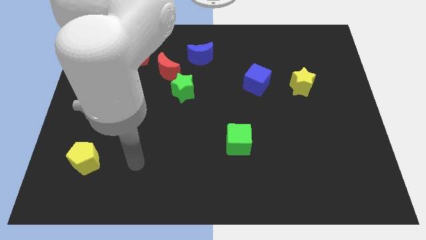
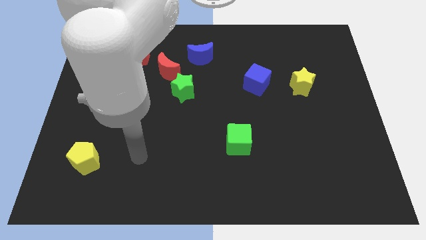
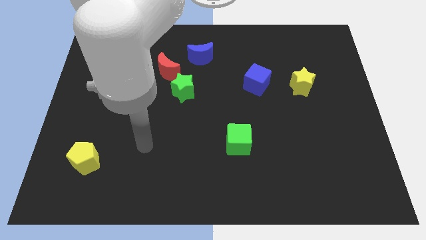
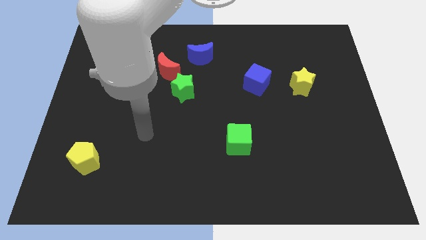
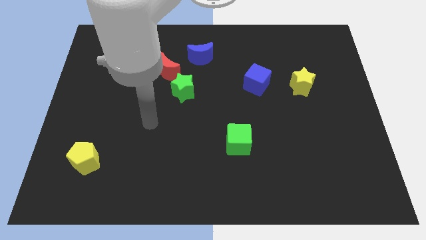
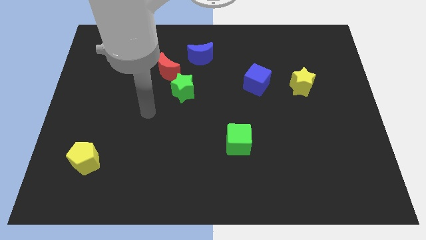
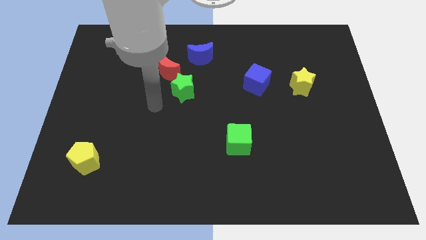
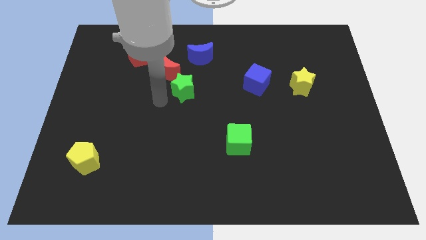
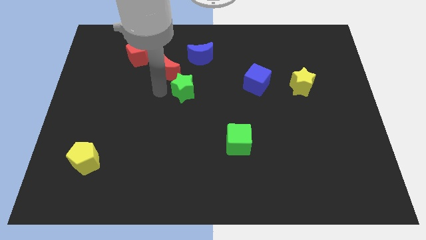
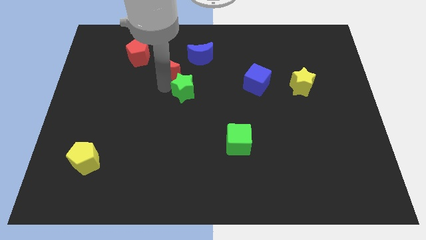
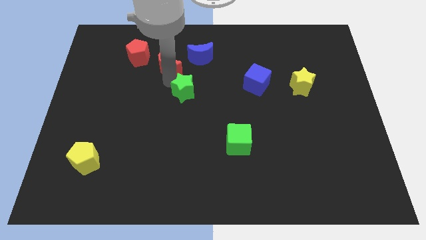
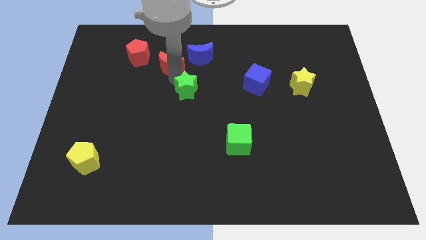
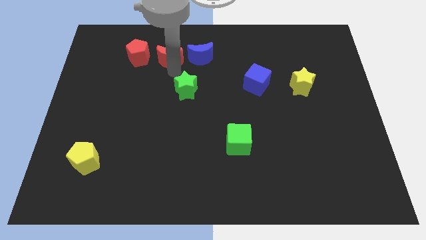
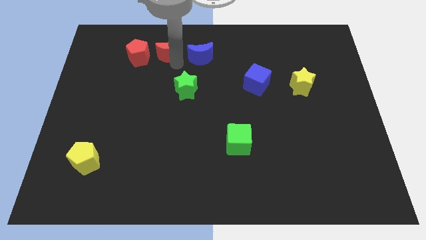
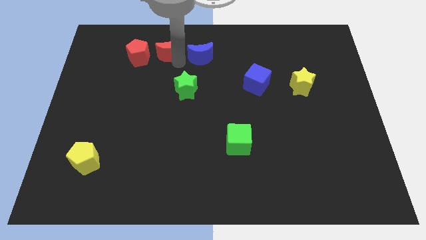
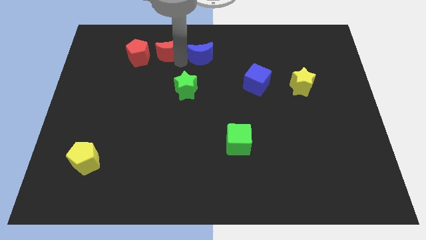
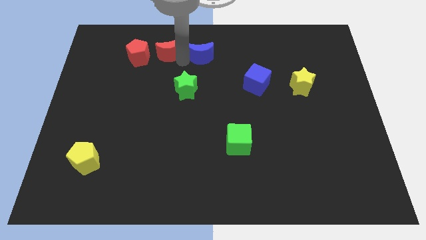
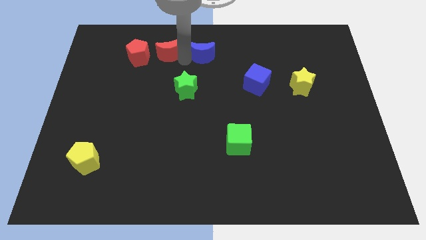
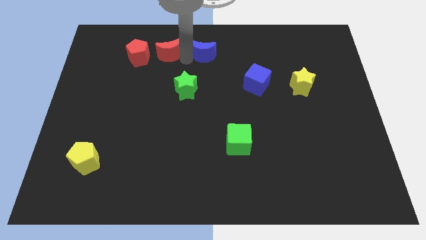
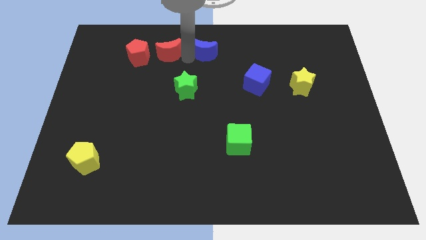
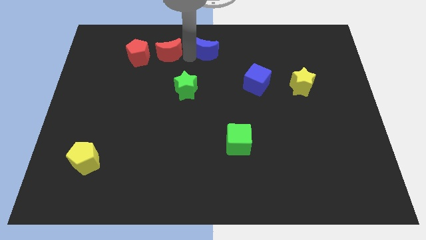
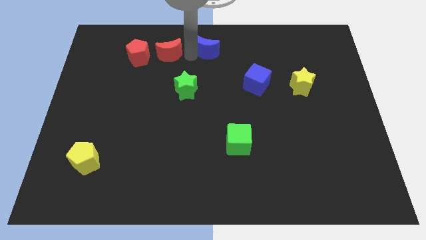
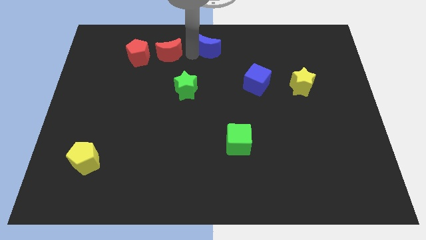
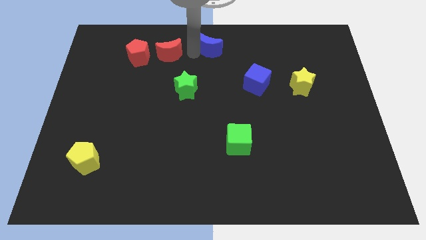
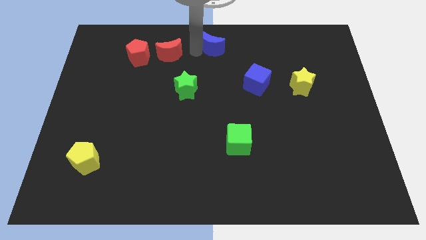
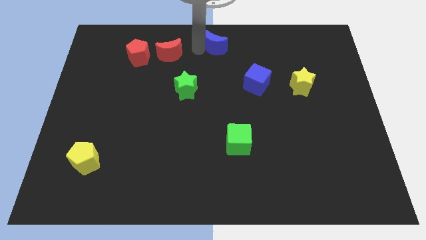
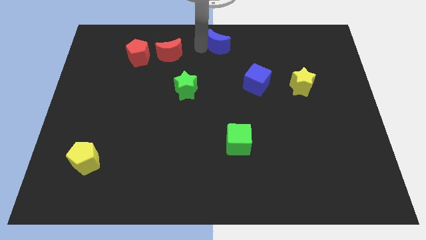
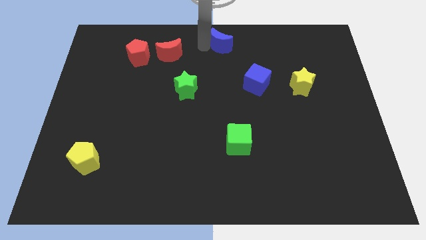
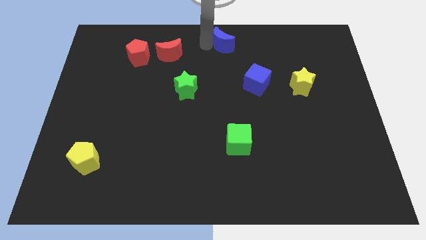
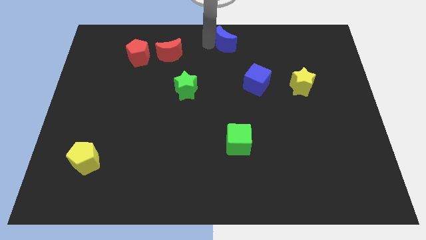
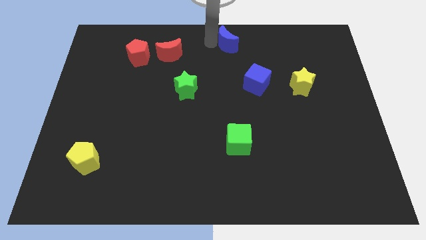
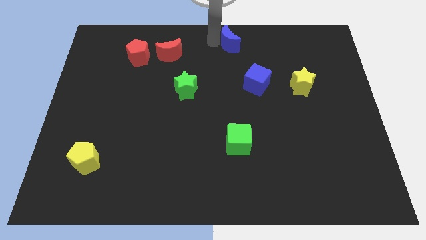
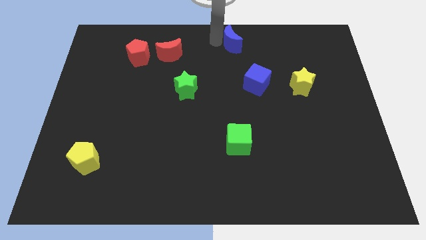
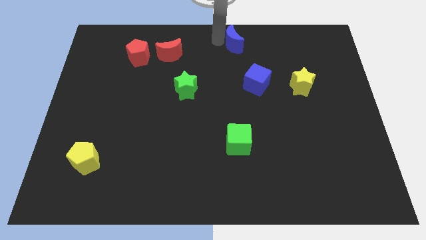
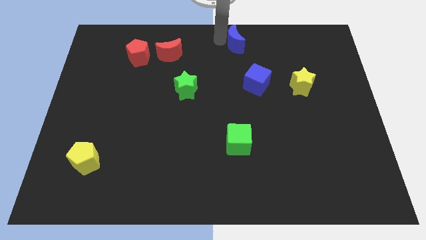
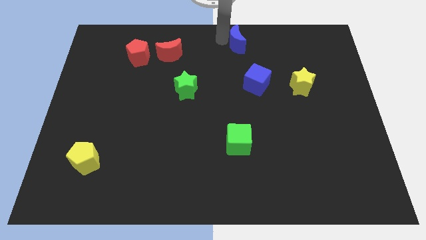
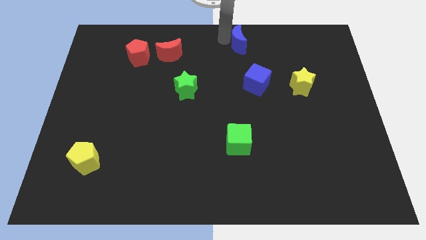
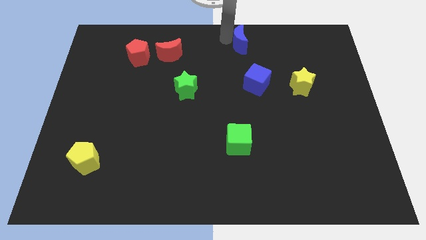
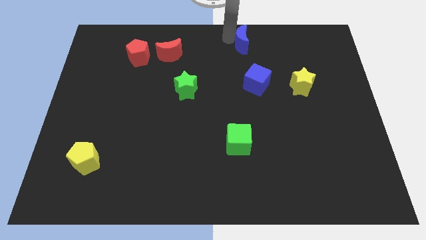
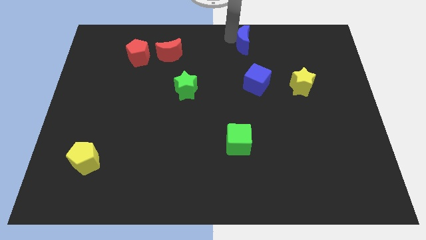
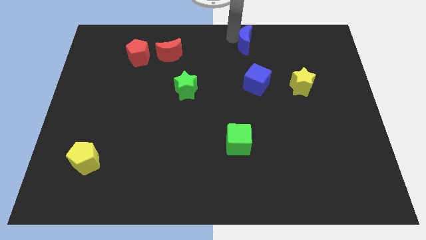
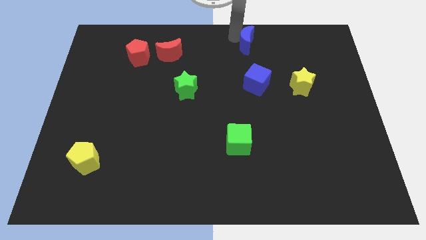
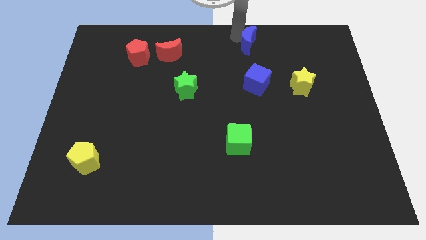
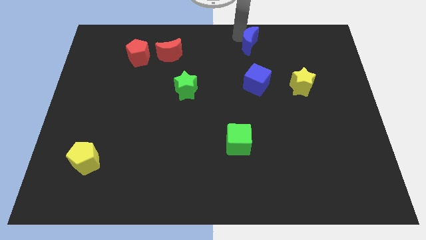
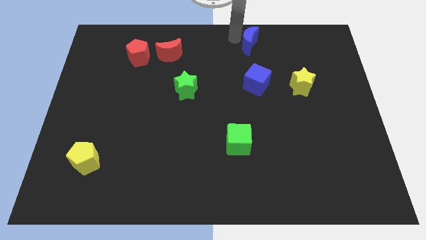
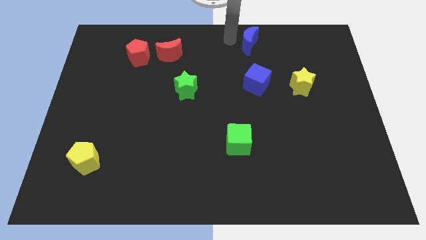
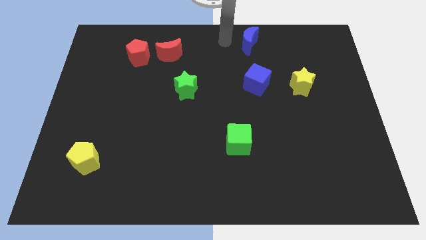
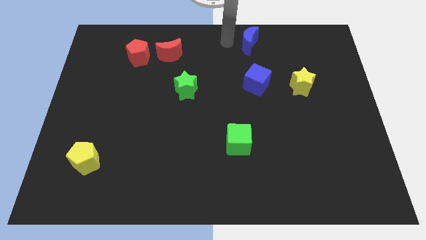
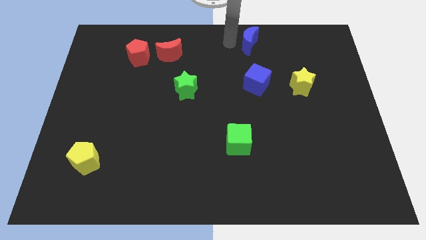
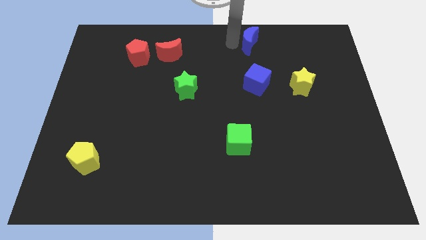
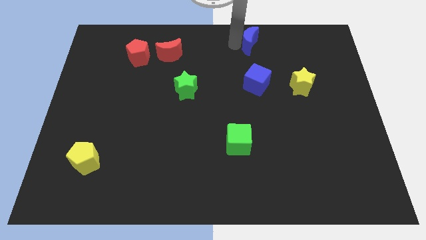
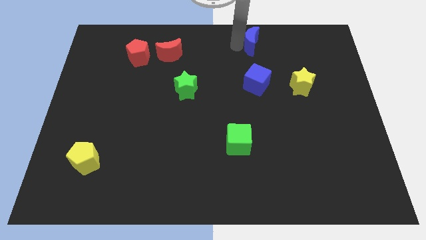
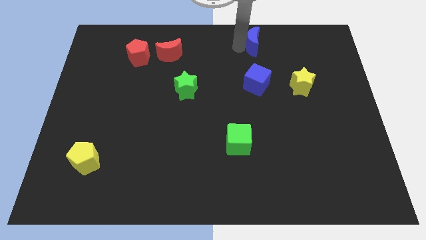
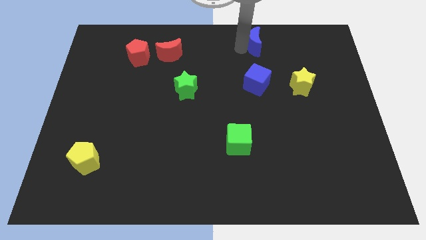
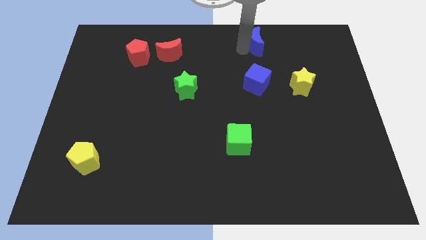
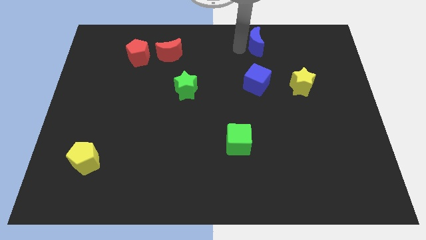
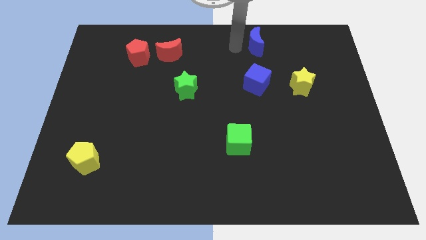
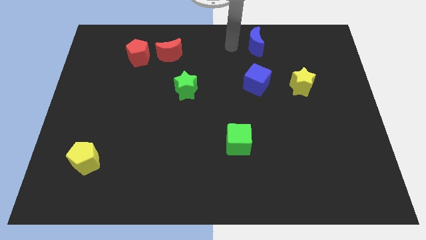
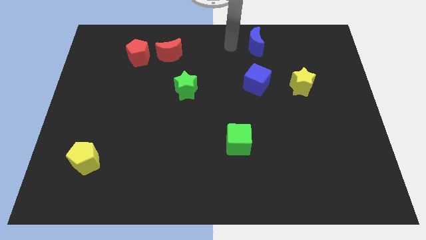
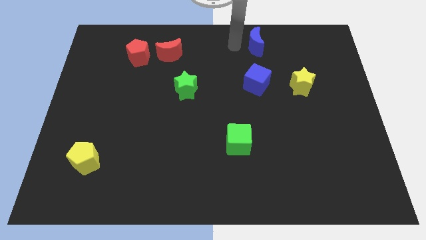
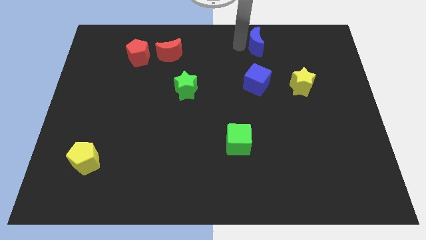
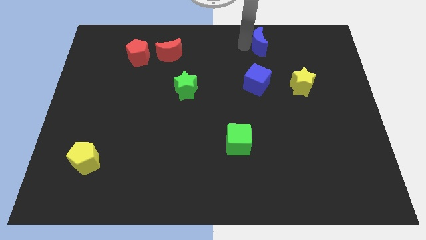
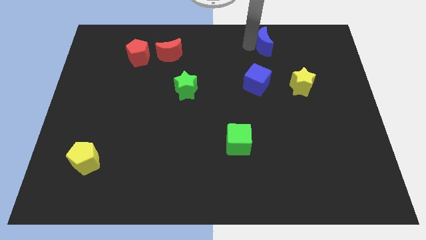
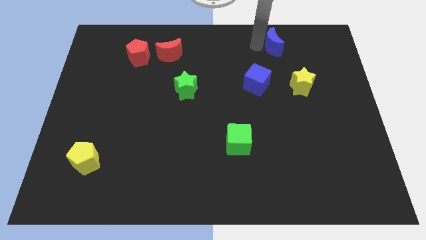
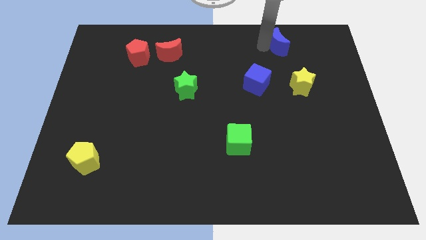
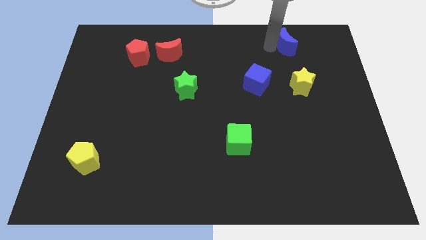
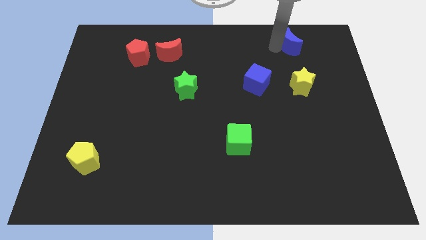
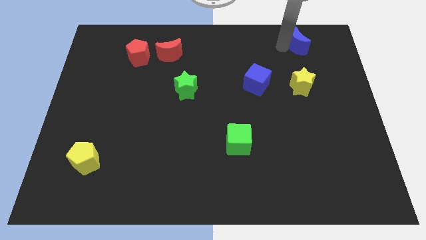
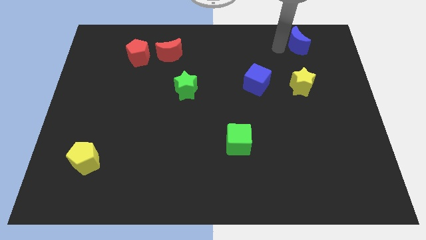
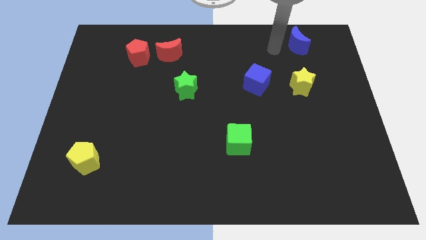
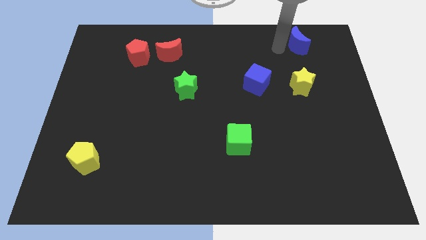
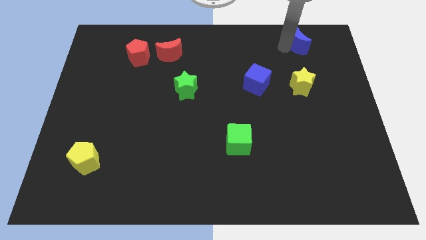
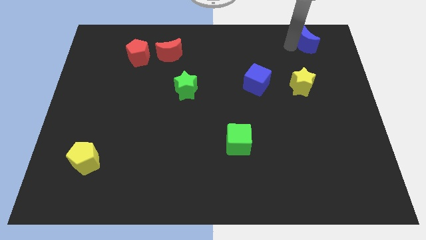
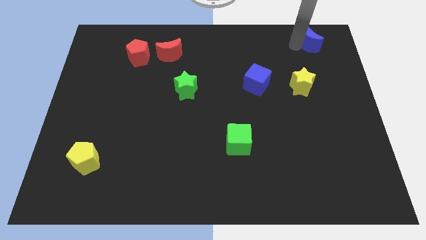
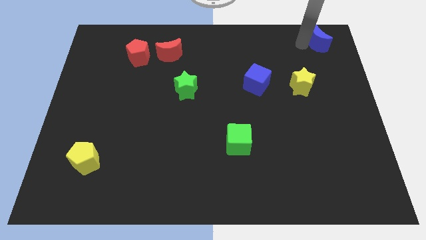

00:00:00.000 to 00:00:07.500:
put the blue moon to the upper right corner
